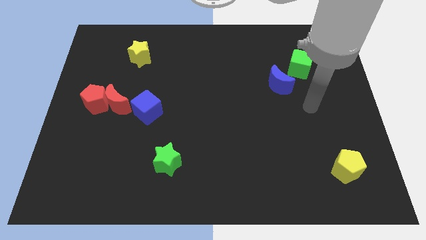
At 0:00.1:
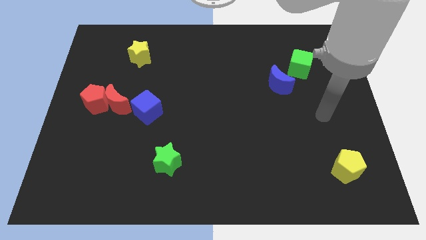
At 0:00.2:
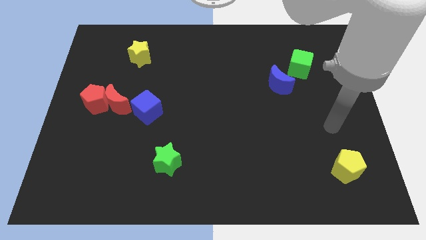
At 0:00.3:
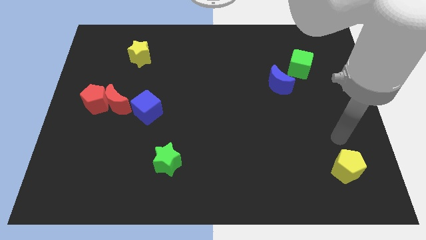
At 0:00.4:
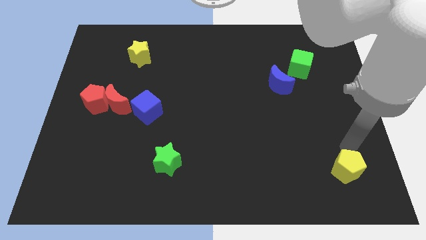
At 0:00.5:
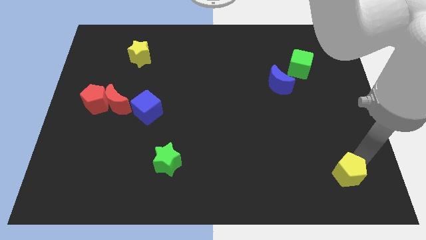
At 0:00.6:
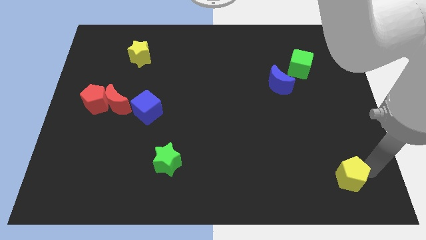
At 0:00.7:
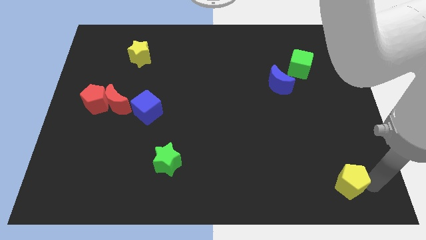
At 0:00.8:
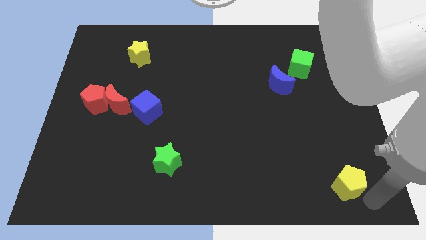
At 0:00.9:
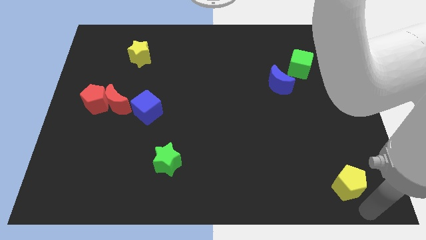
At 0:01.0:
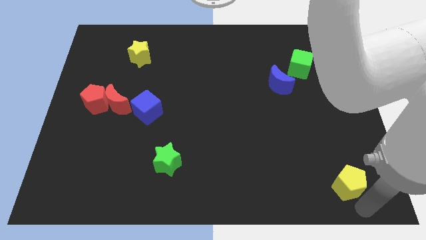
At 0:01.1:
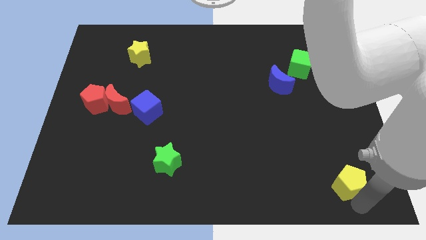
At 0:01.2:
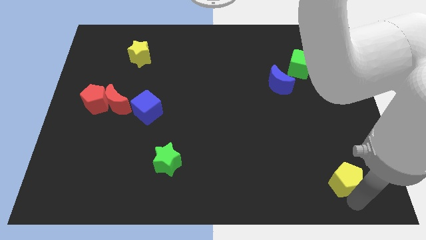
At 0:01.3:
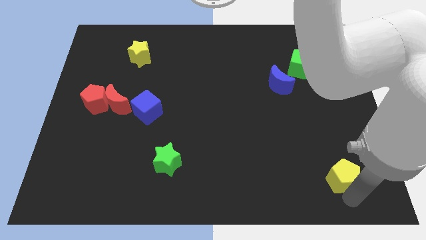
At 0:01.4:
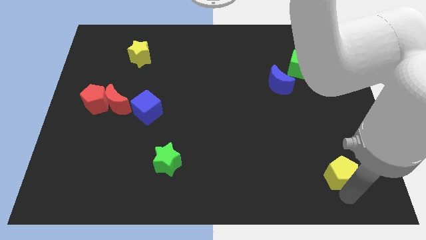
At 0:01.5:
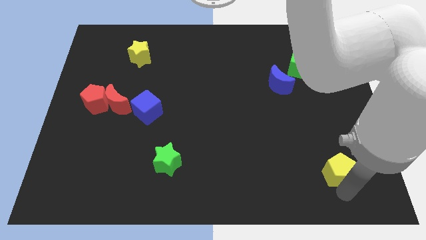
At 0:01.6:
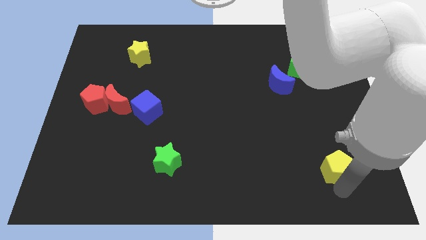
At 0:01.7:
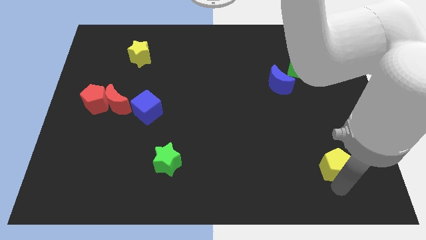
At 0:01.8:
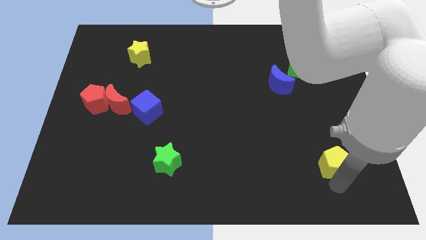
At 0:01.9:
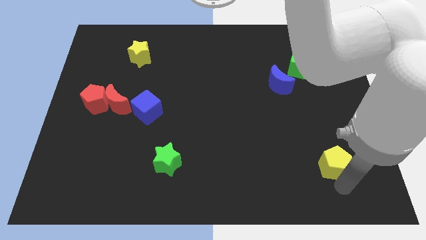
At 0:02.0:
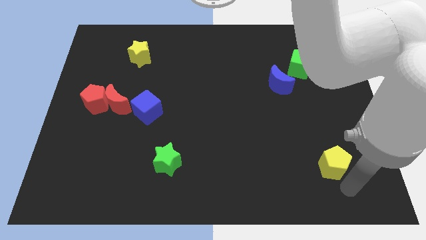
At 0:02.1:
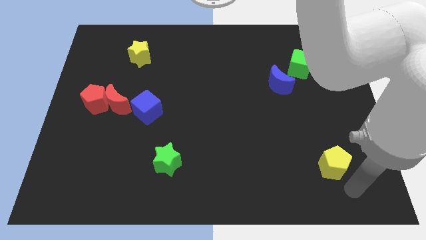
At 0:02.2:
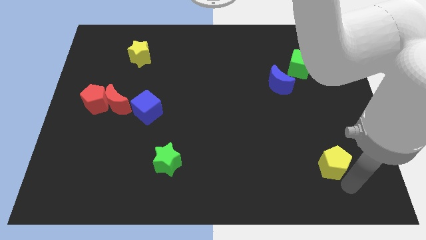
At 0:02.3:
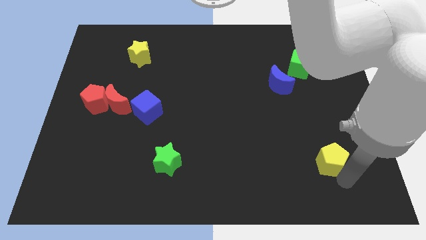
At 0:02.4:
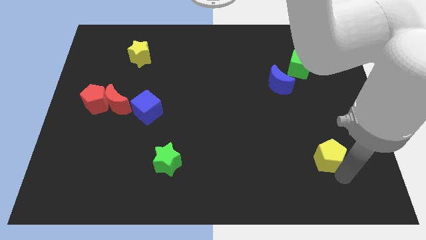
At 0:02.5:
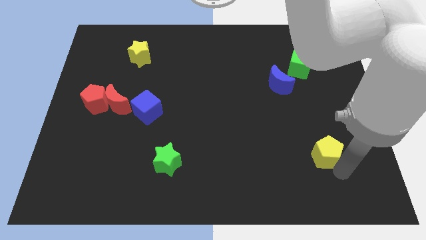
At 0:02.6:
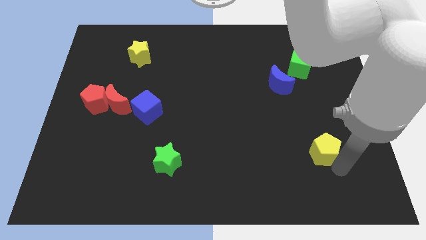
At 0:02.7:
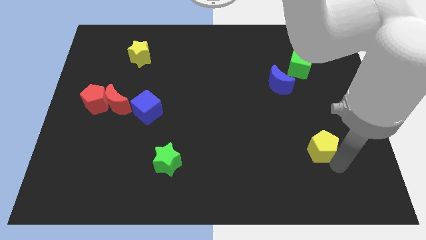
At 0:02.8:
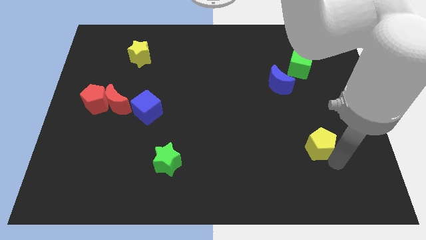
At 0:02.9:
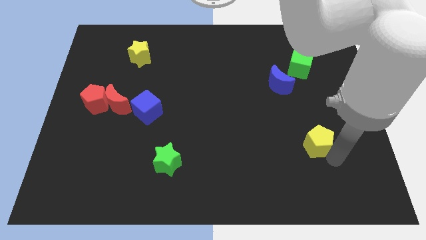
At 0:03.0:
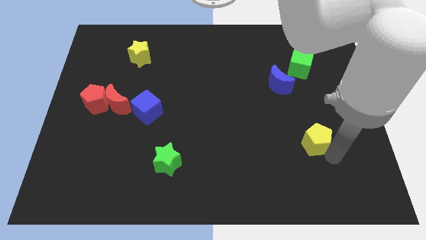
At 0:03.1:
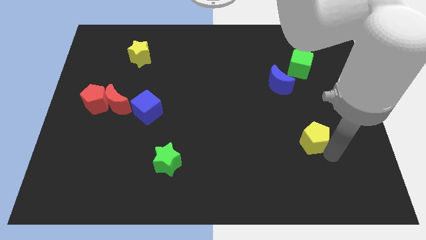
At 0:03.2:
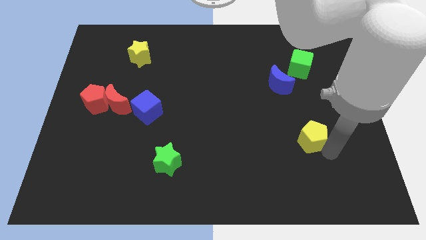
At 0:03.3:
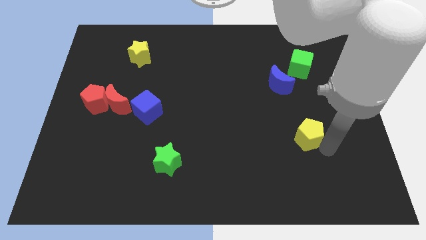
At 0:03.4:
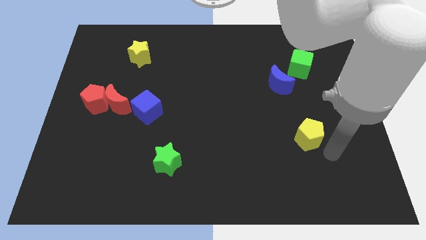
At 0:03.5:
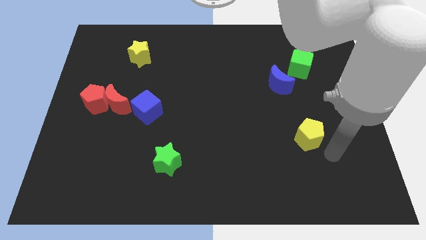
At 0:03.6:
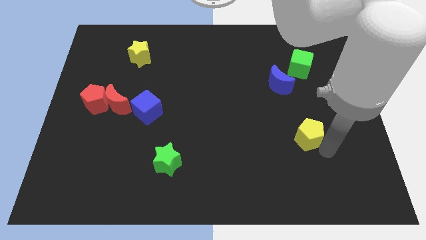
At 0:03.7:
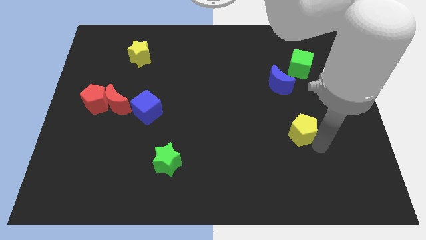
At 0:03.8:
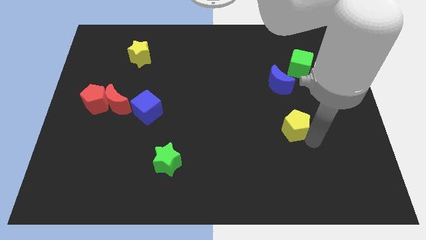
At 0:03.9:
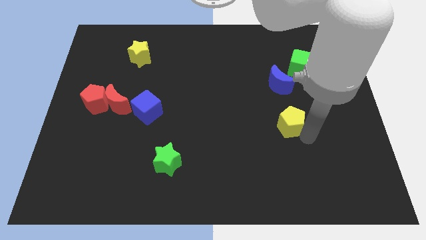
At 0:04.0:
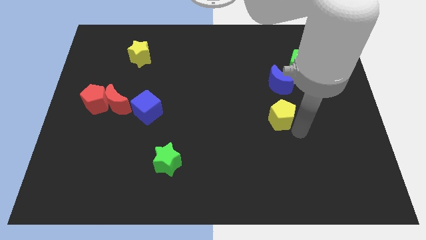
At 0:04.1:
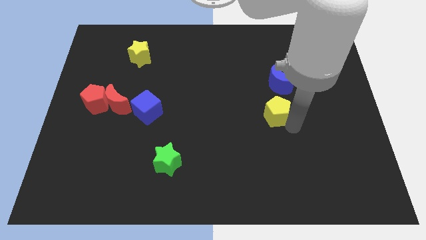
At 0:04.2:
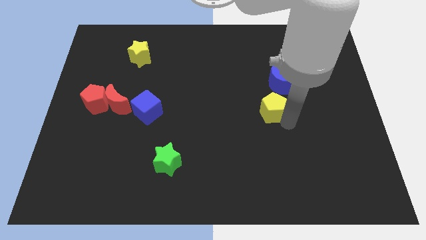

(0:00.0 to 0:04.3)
move the yellow pentagon up and then to the left

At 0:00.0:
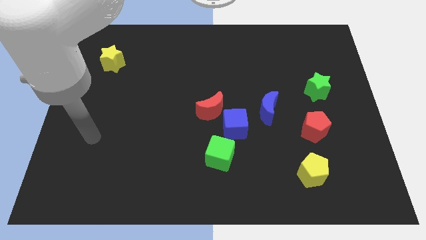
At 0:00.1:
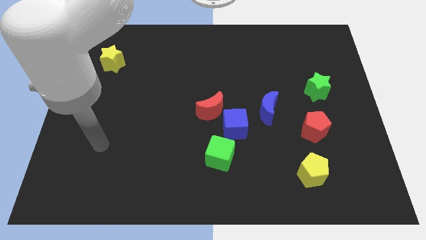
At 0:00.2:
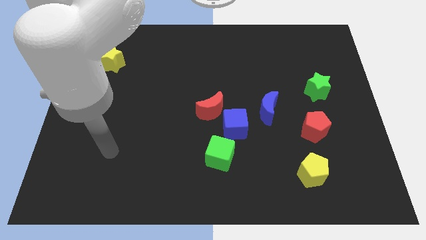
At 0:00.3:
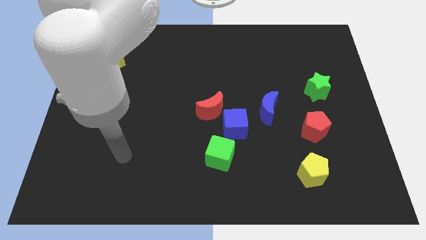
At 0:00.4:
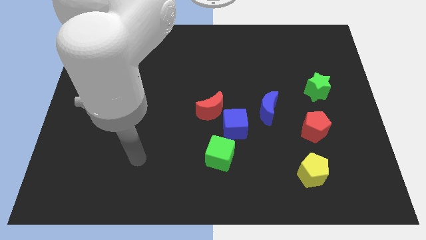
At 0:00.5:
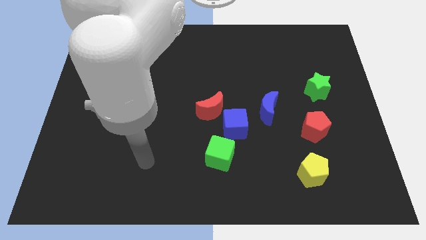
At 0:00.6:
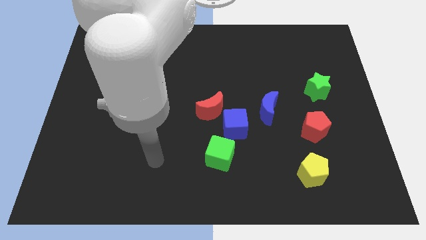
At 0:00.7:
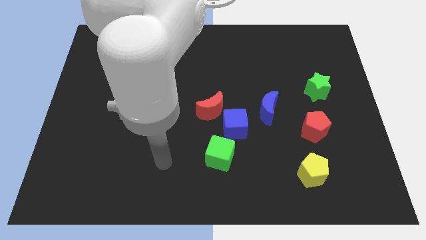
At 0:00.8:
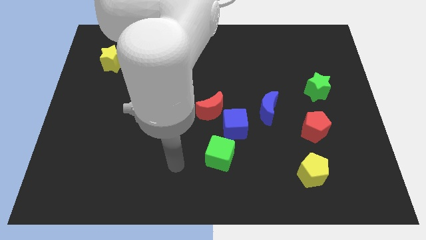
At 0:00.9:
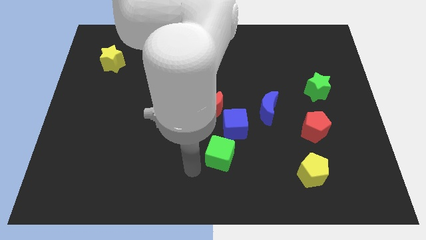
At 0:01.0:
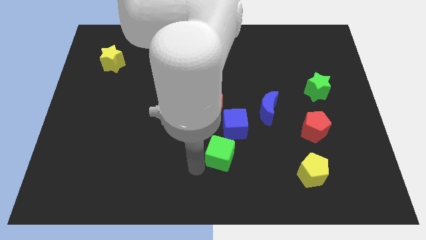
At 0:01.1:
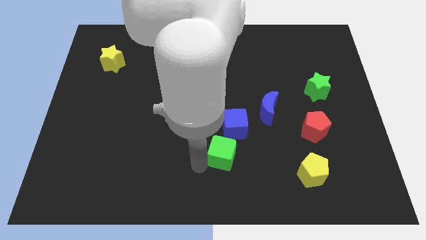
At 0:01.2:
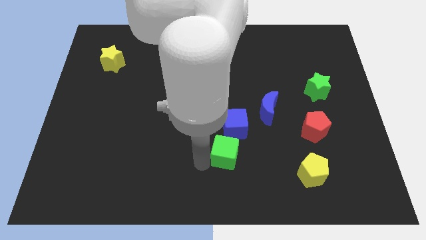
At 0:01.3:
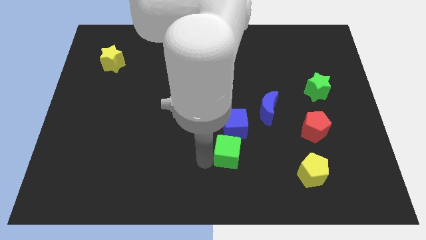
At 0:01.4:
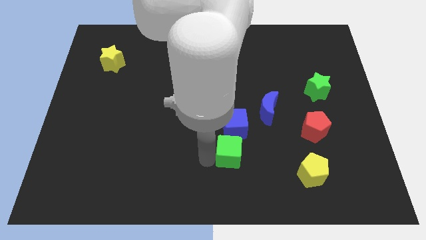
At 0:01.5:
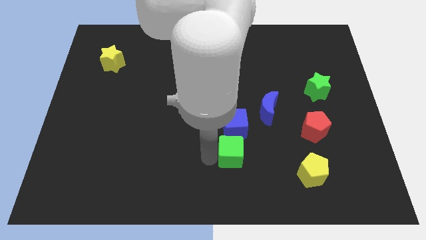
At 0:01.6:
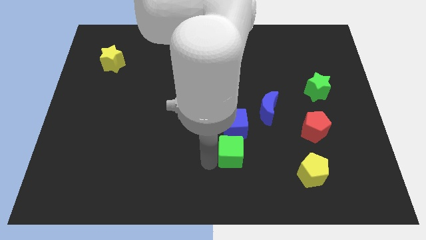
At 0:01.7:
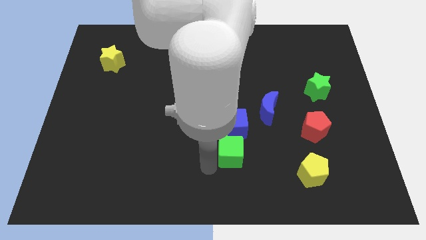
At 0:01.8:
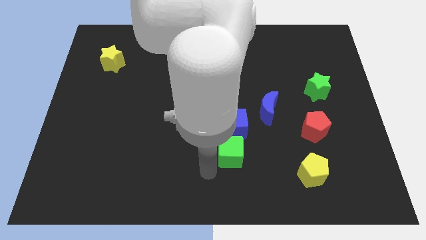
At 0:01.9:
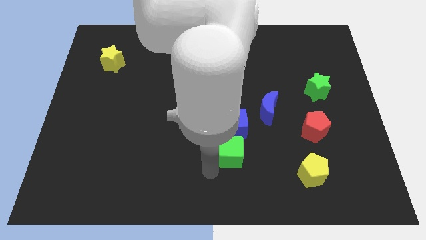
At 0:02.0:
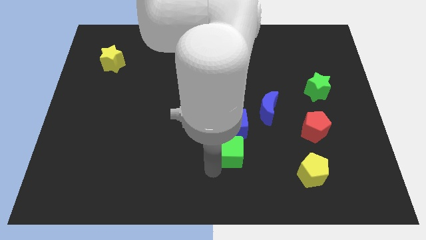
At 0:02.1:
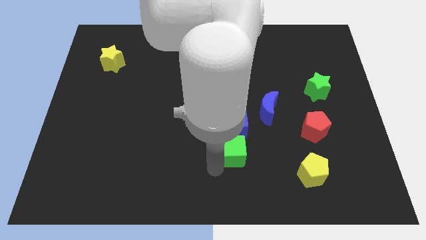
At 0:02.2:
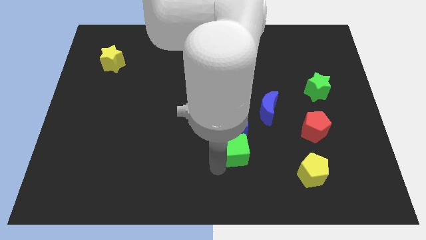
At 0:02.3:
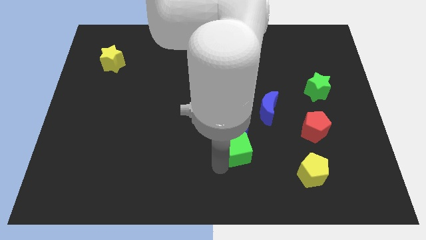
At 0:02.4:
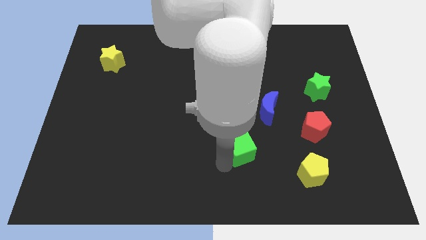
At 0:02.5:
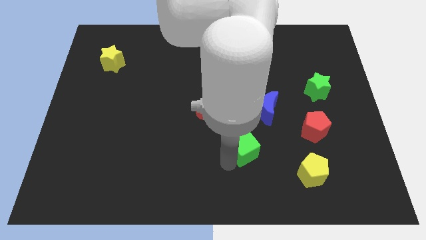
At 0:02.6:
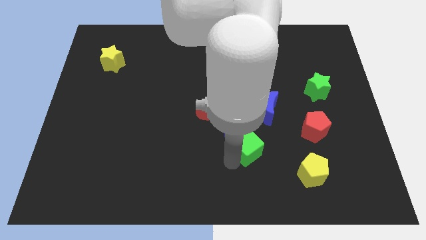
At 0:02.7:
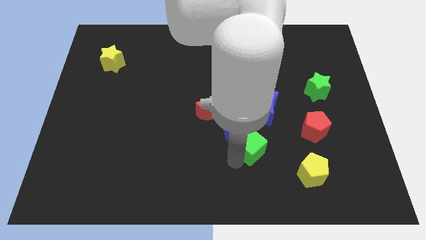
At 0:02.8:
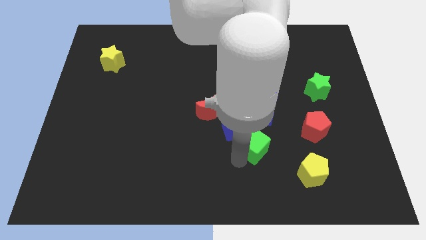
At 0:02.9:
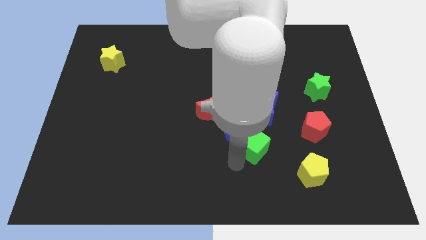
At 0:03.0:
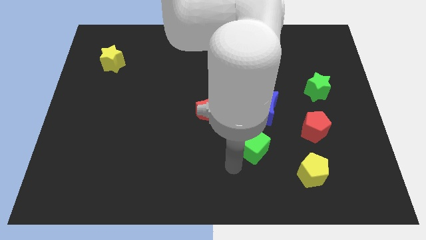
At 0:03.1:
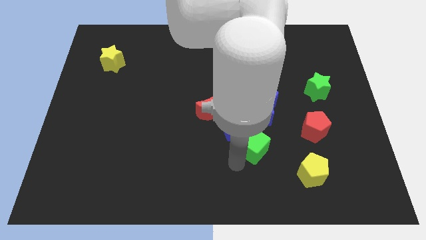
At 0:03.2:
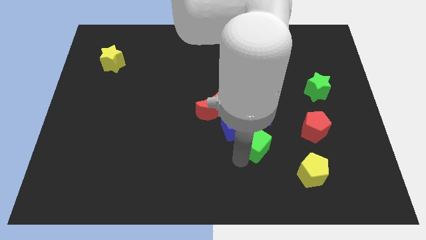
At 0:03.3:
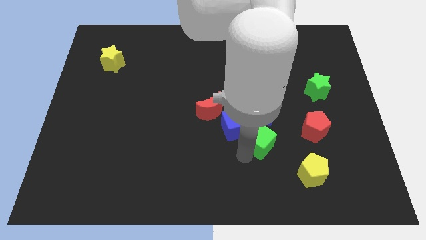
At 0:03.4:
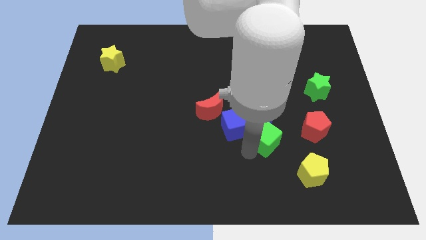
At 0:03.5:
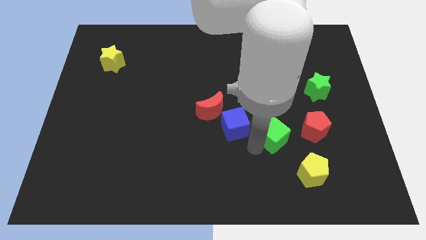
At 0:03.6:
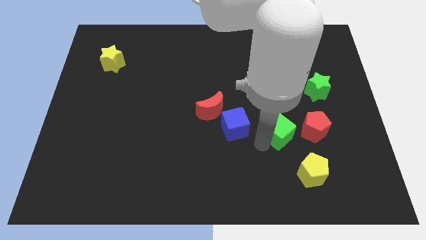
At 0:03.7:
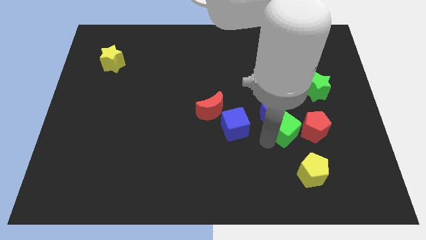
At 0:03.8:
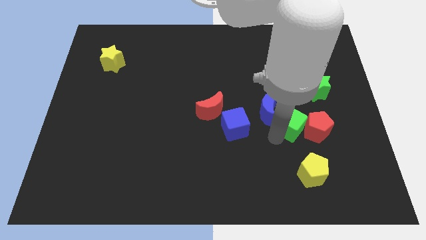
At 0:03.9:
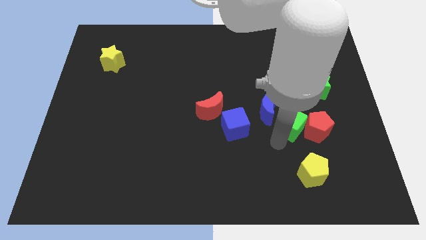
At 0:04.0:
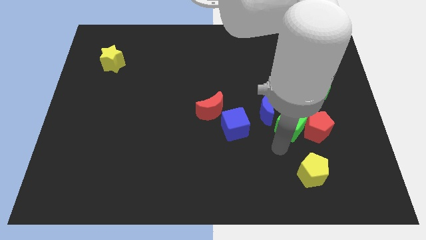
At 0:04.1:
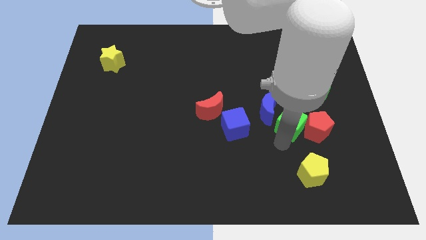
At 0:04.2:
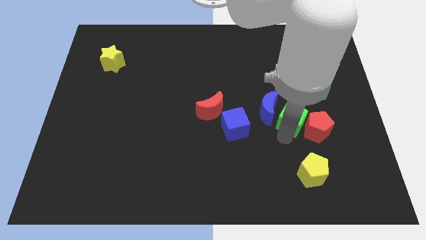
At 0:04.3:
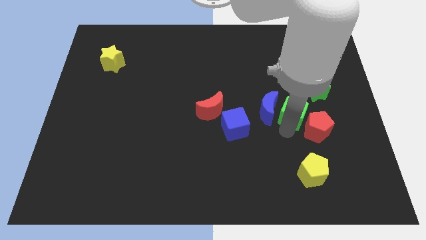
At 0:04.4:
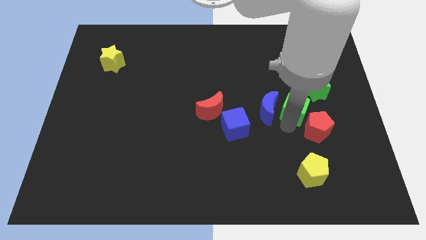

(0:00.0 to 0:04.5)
push the green cube up and to the right
